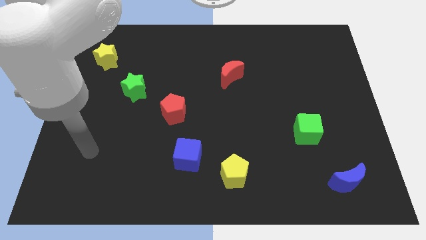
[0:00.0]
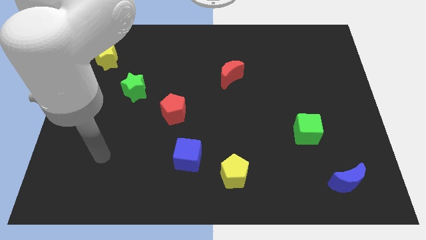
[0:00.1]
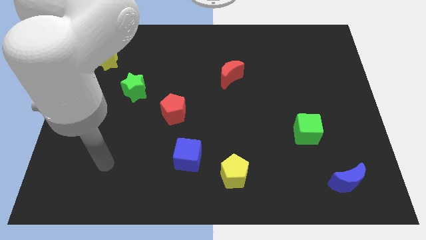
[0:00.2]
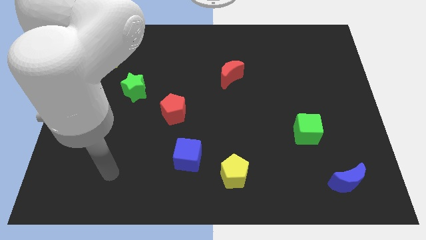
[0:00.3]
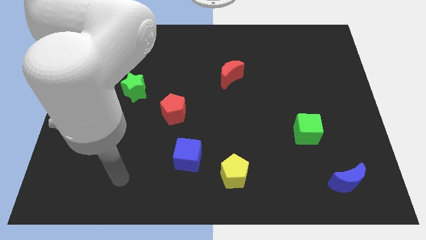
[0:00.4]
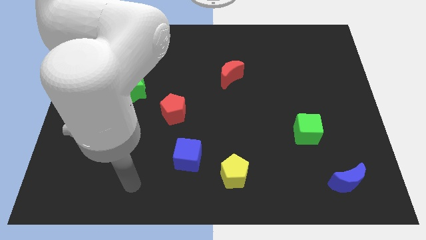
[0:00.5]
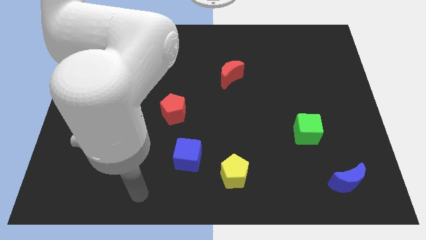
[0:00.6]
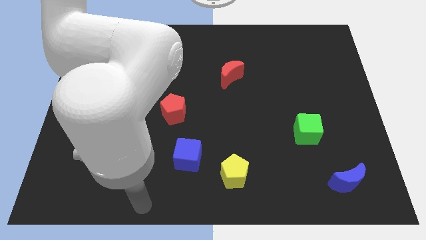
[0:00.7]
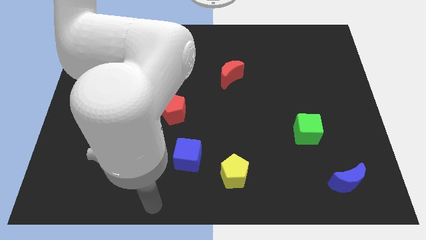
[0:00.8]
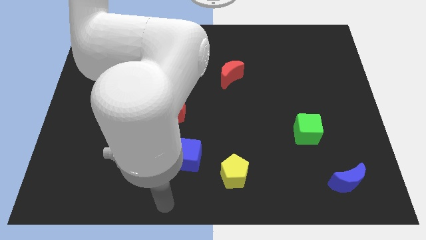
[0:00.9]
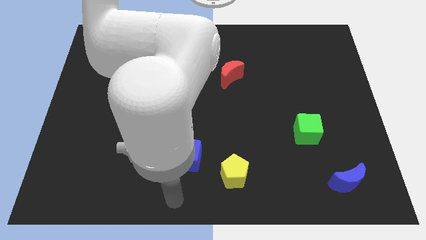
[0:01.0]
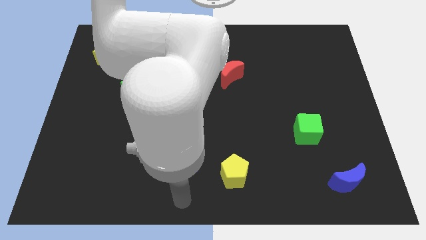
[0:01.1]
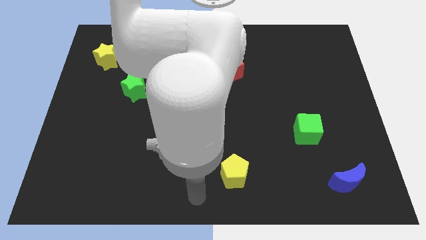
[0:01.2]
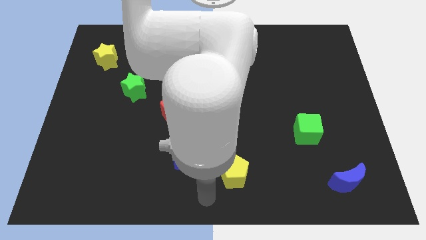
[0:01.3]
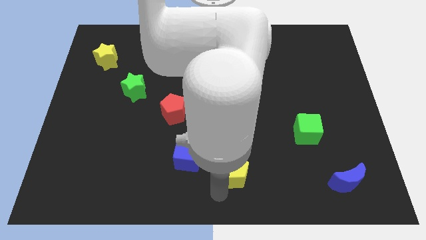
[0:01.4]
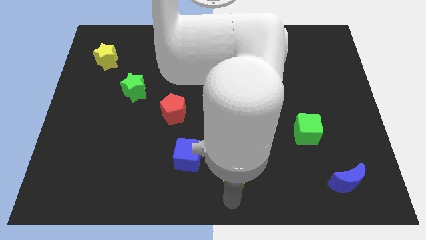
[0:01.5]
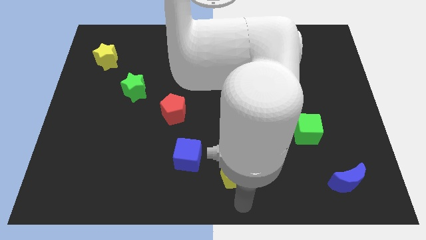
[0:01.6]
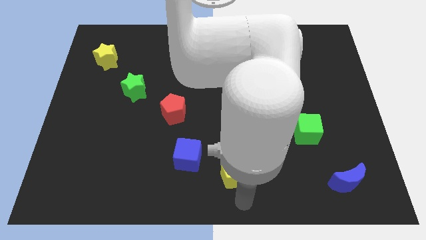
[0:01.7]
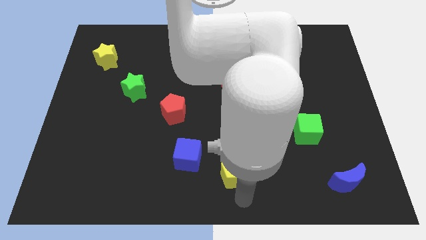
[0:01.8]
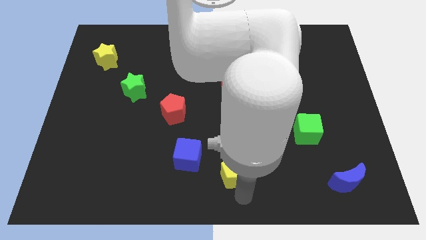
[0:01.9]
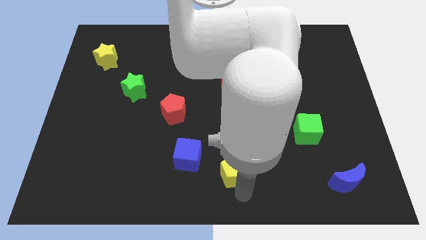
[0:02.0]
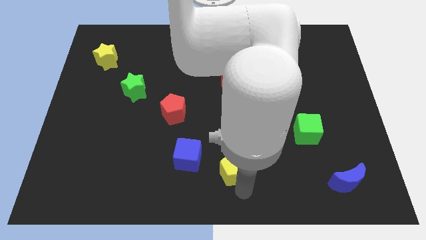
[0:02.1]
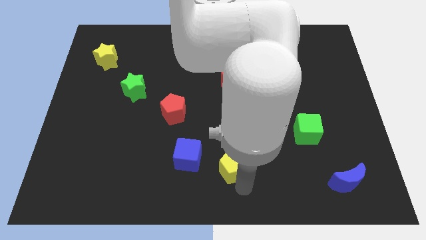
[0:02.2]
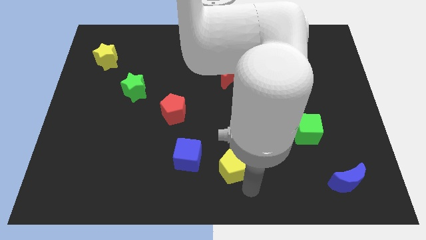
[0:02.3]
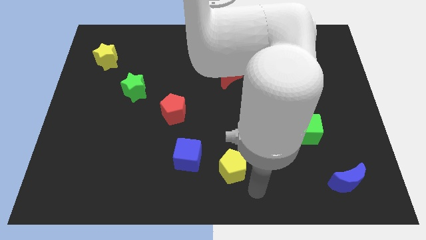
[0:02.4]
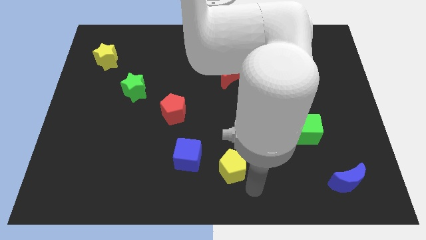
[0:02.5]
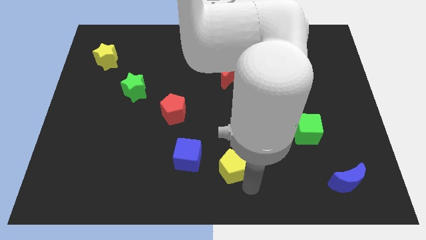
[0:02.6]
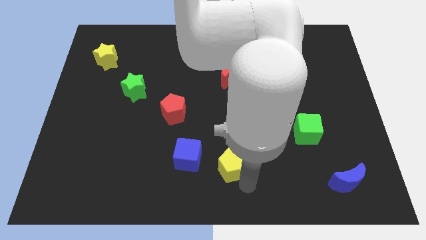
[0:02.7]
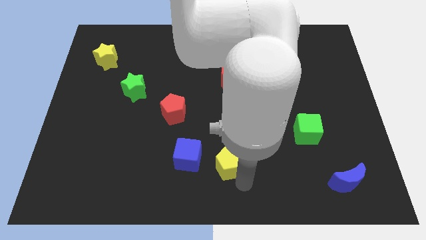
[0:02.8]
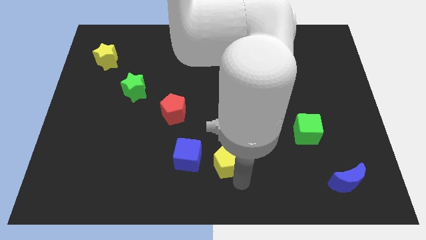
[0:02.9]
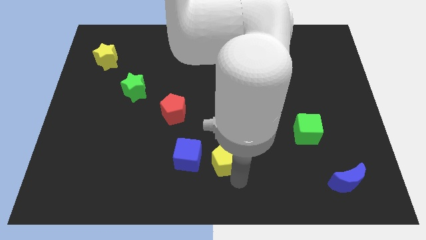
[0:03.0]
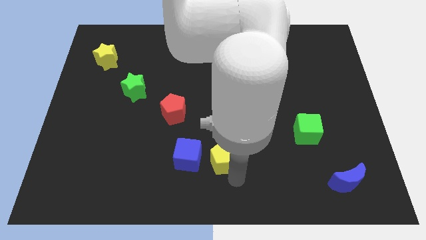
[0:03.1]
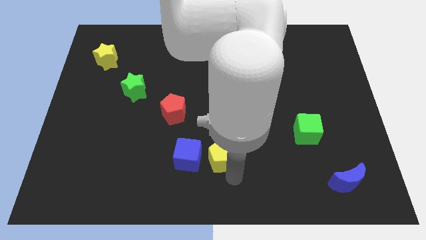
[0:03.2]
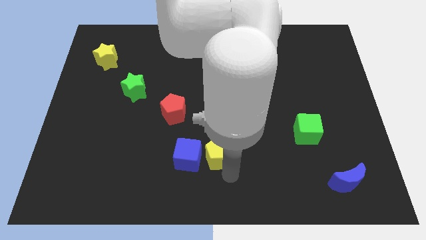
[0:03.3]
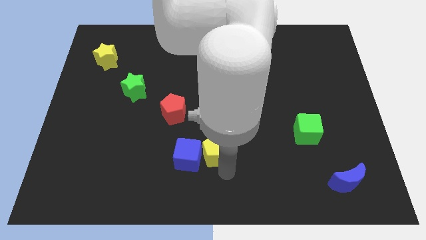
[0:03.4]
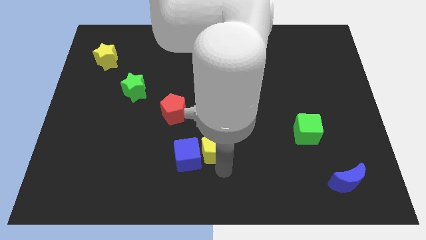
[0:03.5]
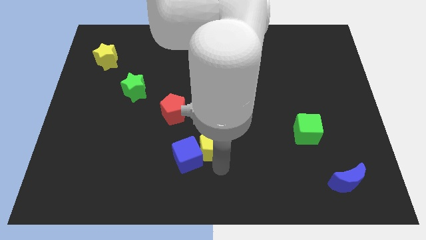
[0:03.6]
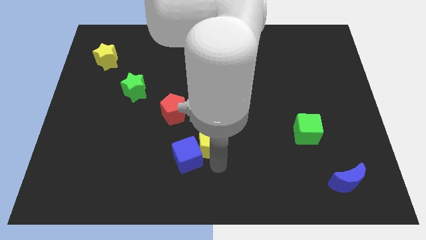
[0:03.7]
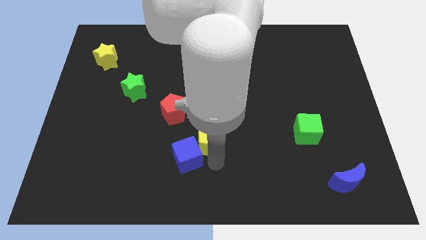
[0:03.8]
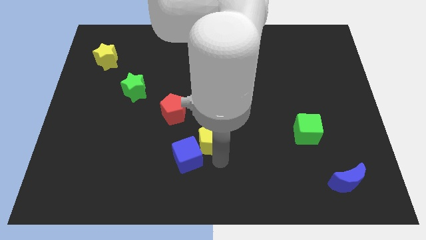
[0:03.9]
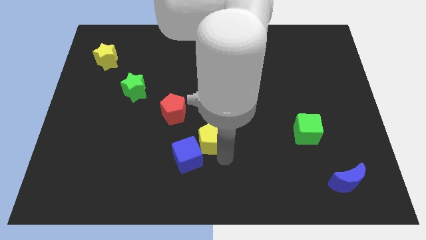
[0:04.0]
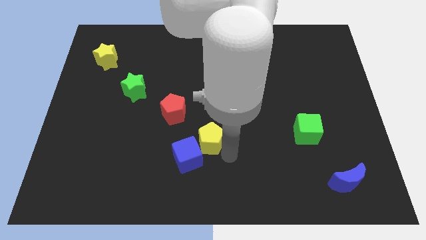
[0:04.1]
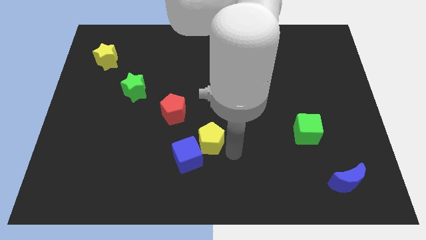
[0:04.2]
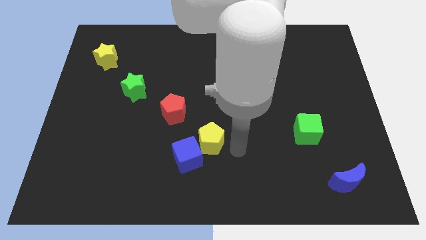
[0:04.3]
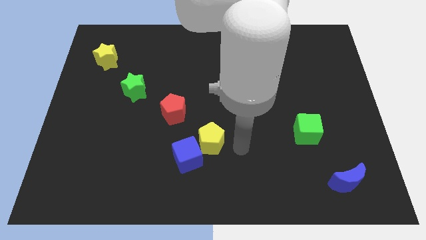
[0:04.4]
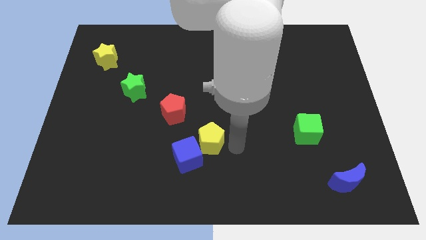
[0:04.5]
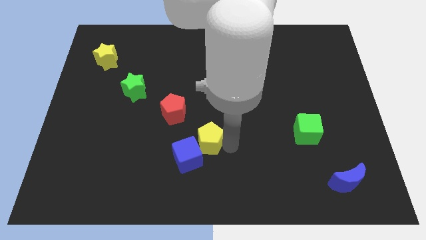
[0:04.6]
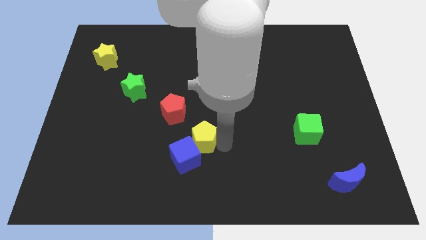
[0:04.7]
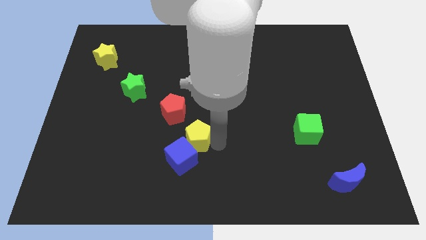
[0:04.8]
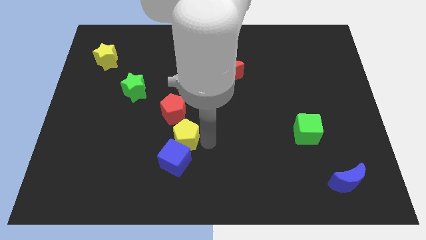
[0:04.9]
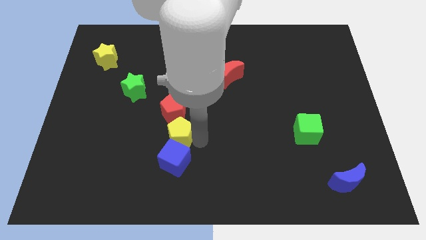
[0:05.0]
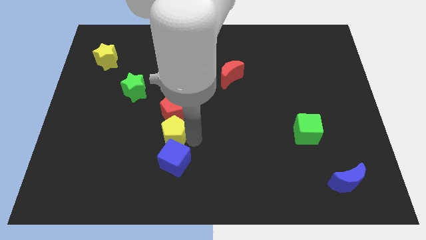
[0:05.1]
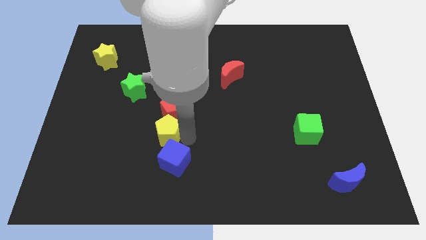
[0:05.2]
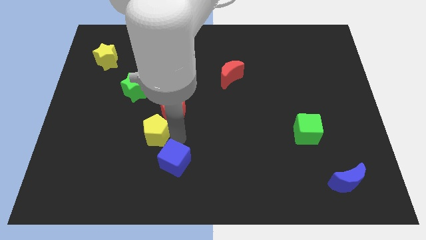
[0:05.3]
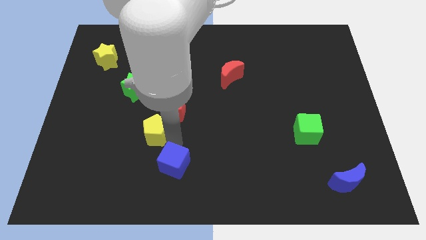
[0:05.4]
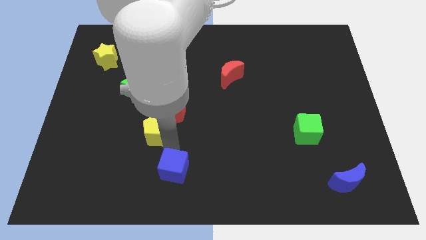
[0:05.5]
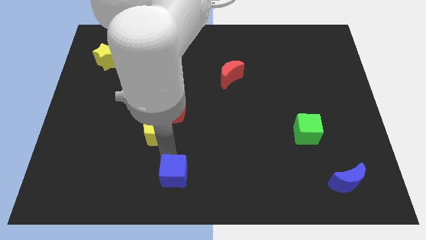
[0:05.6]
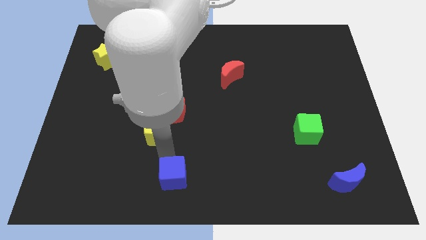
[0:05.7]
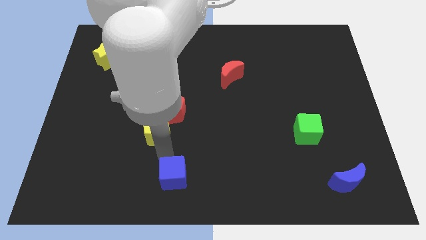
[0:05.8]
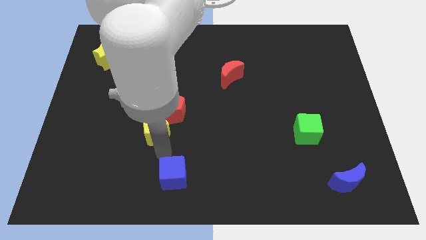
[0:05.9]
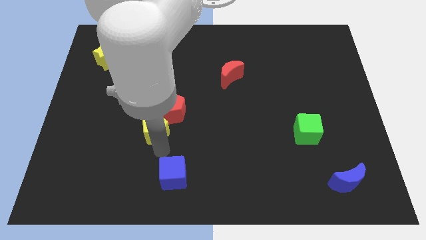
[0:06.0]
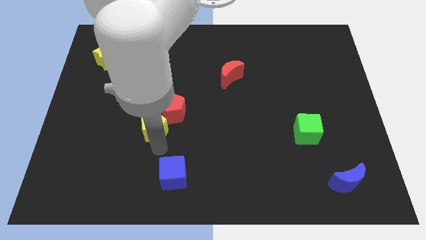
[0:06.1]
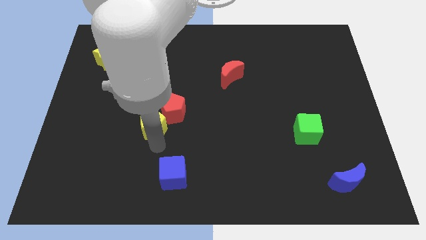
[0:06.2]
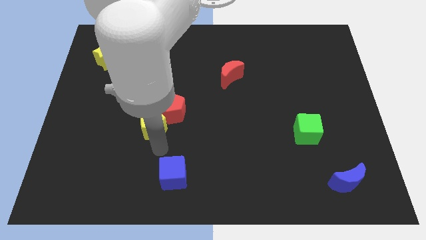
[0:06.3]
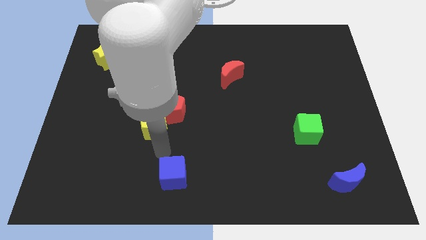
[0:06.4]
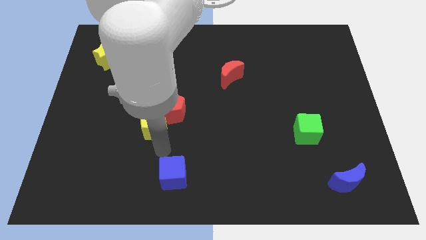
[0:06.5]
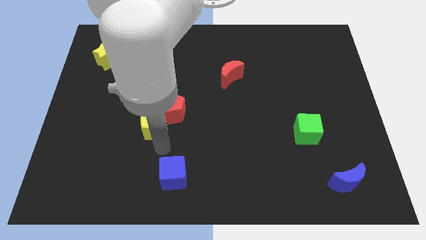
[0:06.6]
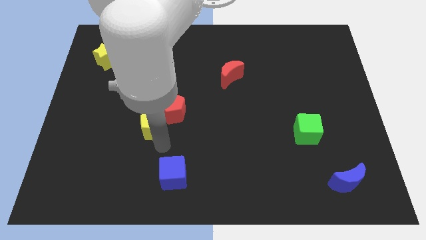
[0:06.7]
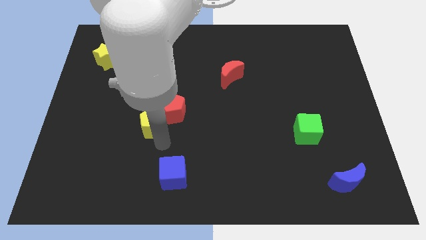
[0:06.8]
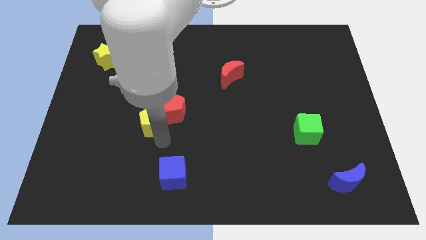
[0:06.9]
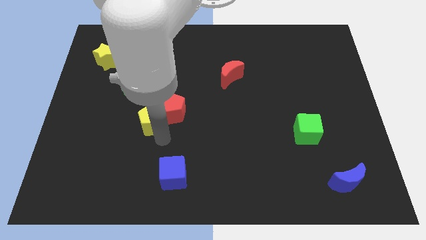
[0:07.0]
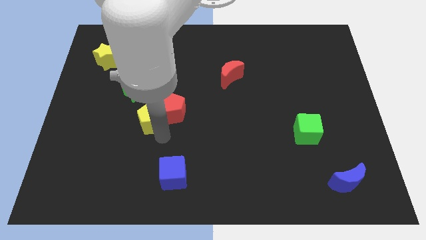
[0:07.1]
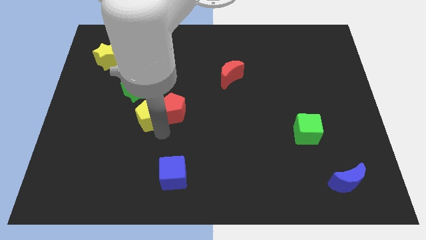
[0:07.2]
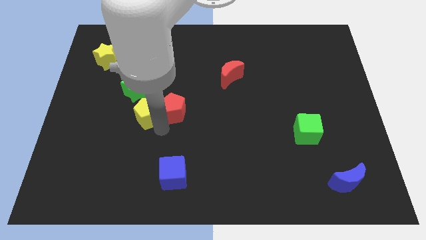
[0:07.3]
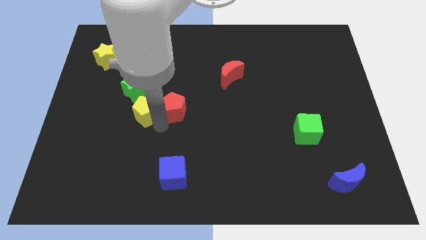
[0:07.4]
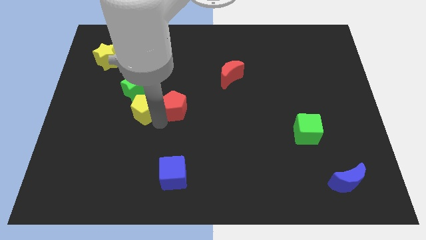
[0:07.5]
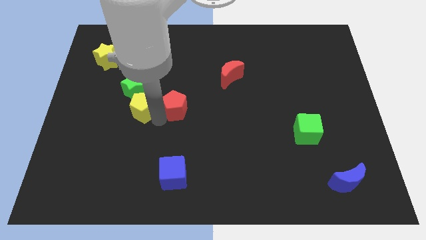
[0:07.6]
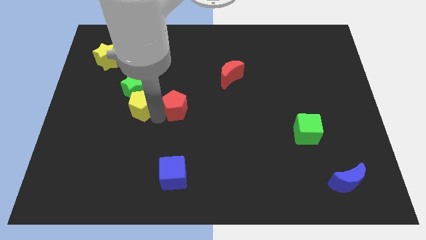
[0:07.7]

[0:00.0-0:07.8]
slide the yellow pentagon to the green star
